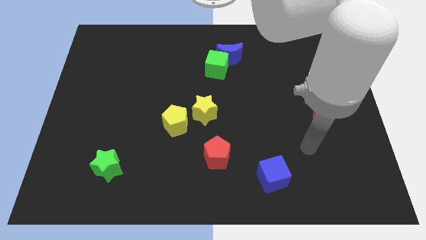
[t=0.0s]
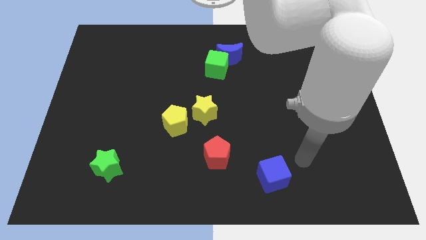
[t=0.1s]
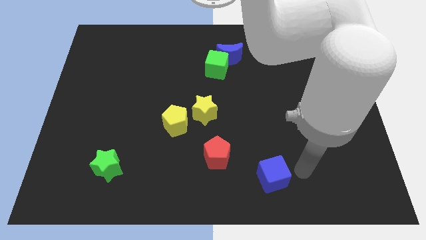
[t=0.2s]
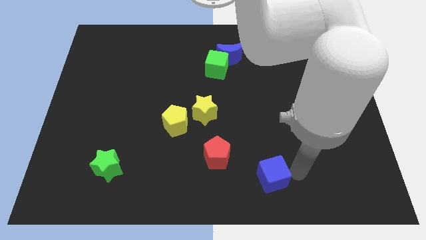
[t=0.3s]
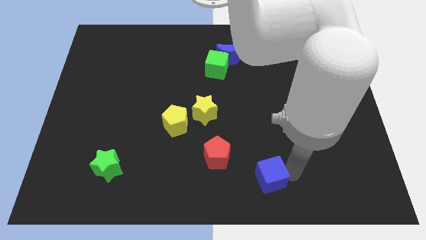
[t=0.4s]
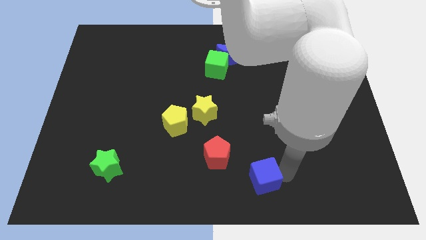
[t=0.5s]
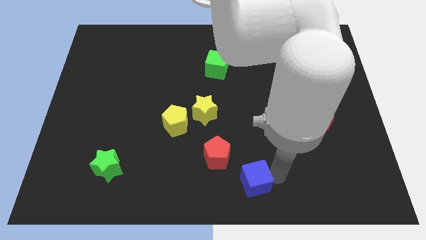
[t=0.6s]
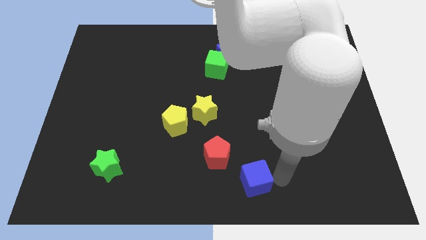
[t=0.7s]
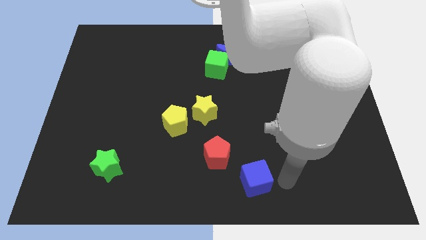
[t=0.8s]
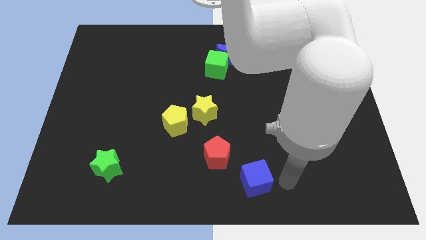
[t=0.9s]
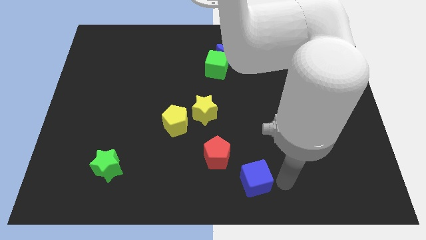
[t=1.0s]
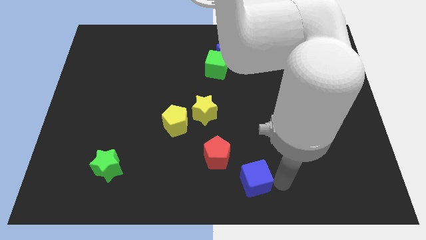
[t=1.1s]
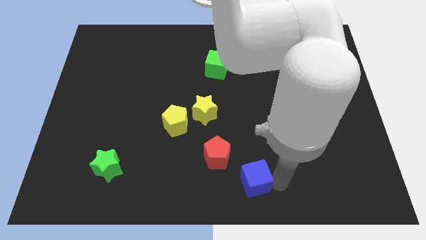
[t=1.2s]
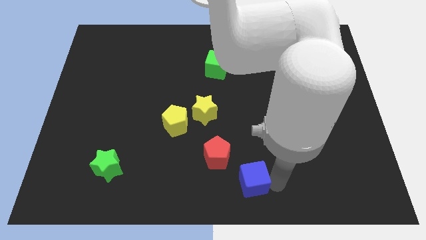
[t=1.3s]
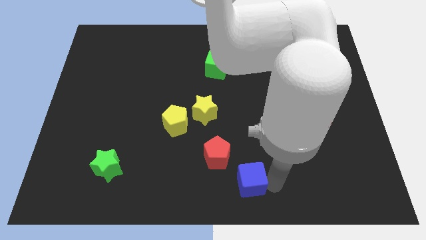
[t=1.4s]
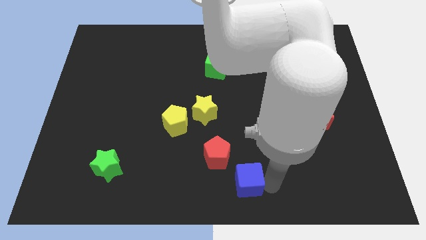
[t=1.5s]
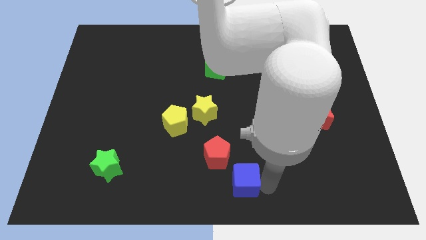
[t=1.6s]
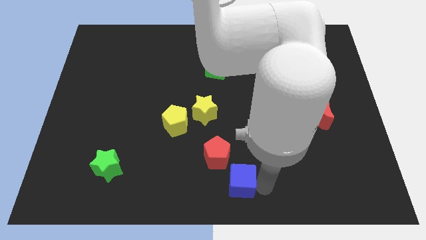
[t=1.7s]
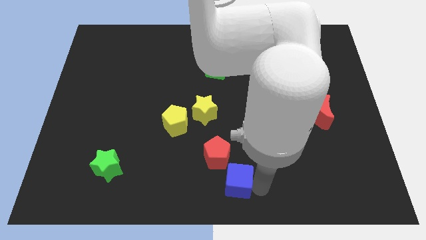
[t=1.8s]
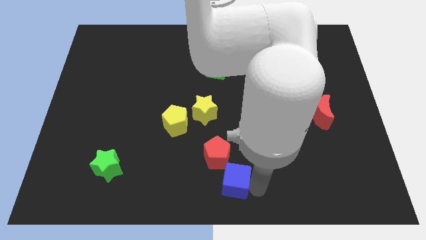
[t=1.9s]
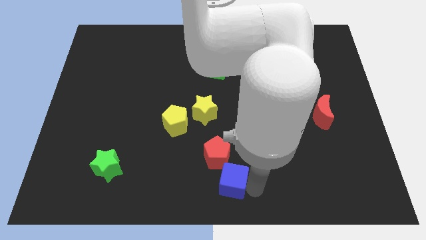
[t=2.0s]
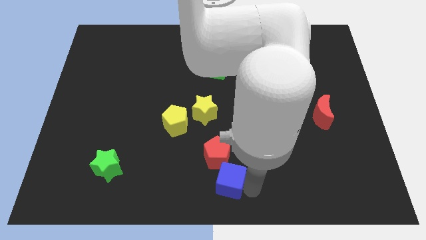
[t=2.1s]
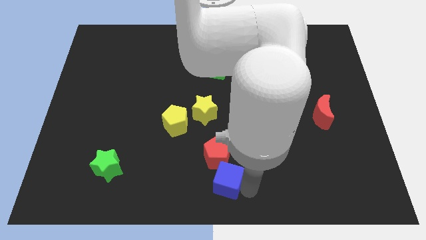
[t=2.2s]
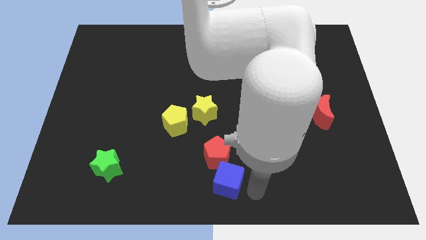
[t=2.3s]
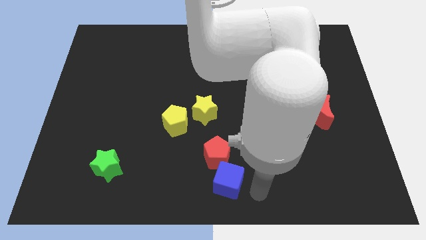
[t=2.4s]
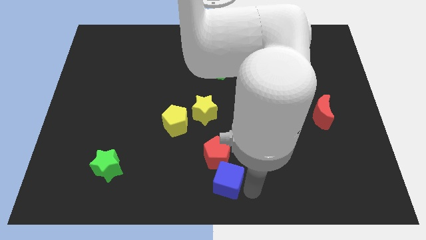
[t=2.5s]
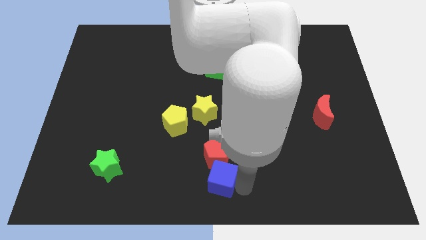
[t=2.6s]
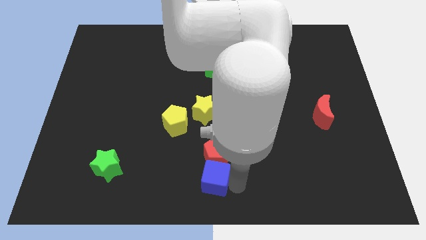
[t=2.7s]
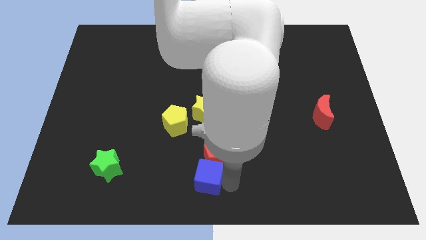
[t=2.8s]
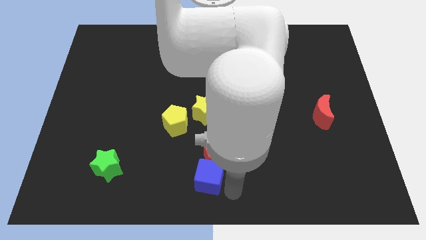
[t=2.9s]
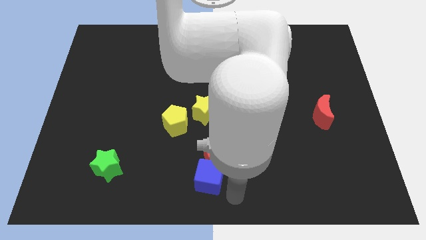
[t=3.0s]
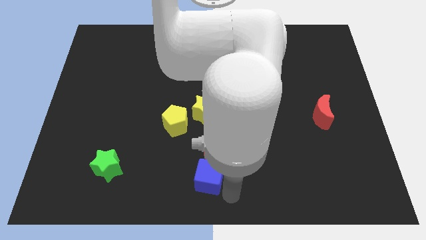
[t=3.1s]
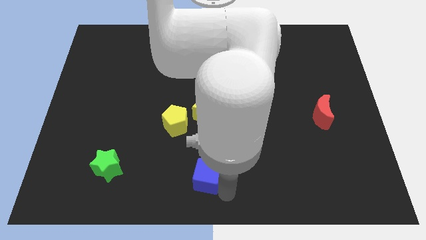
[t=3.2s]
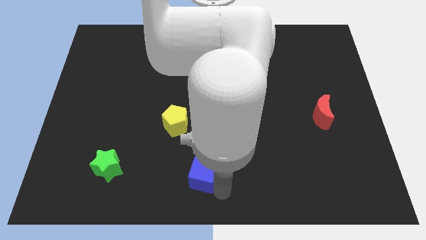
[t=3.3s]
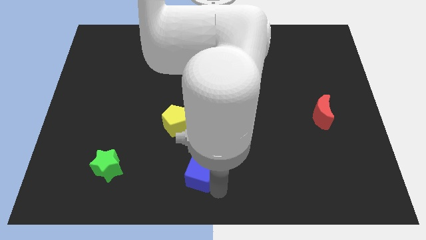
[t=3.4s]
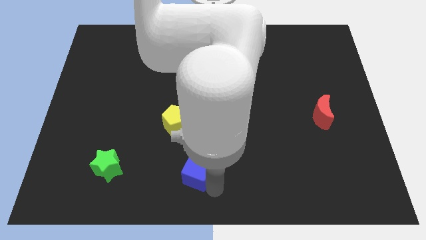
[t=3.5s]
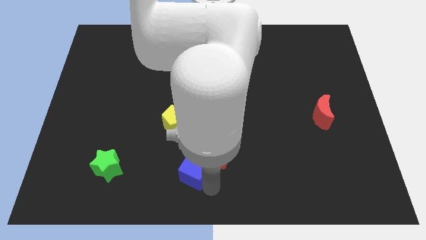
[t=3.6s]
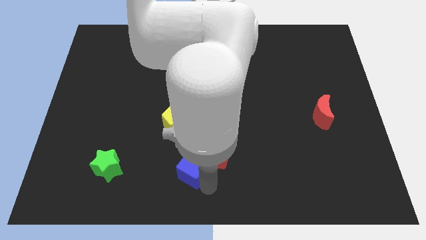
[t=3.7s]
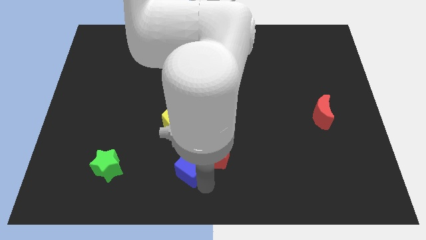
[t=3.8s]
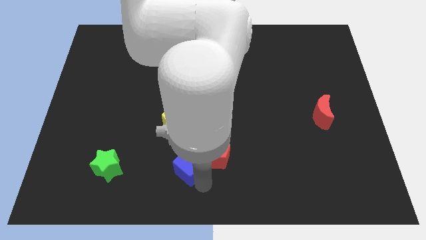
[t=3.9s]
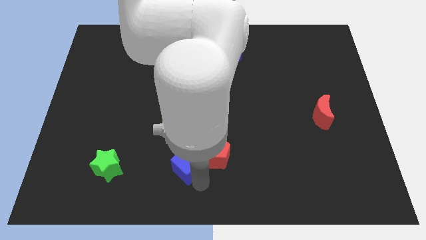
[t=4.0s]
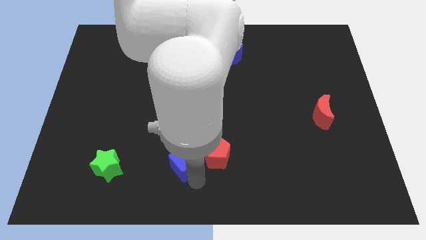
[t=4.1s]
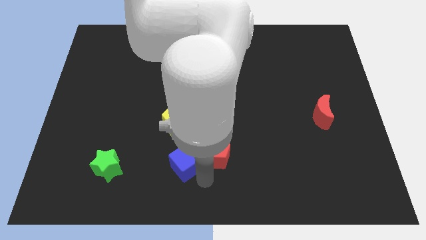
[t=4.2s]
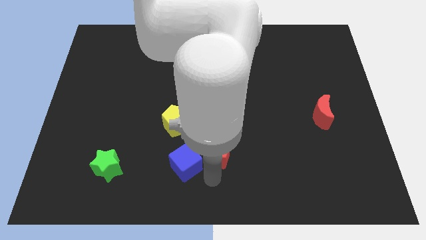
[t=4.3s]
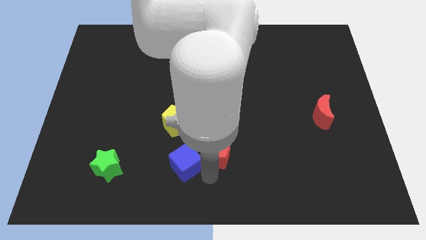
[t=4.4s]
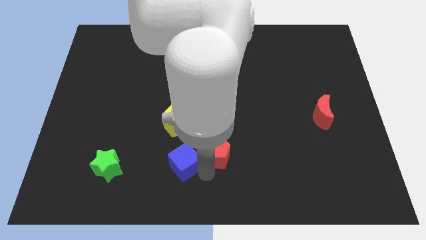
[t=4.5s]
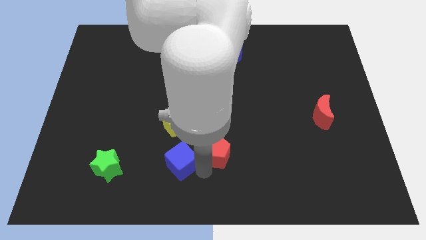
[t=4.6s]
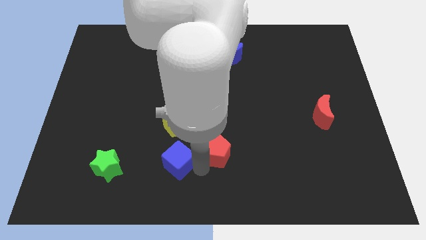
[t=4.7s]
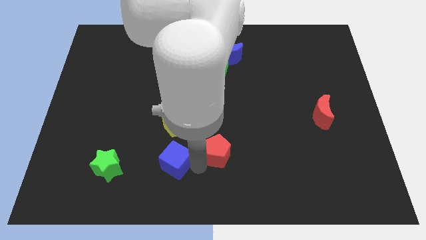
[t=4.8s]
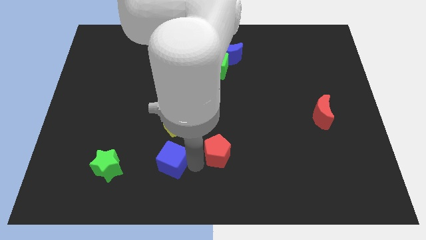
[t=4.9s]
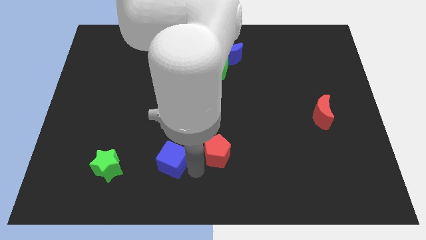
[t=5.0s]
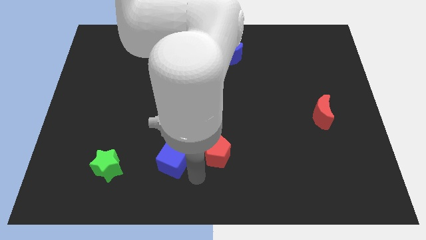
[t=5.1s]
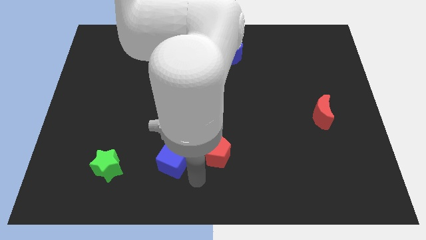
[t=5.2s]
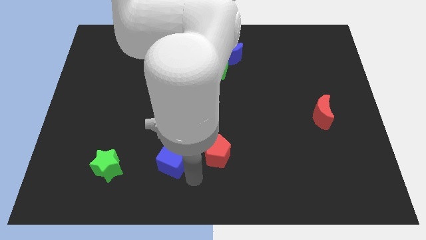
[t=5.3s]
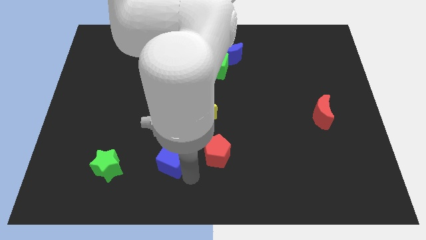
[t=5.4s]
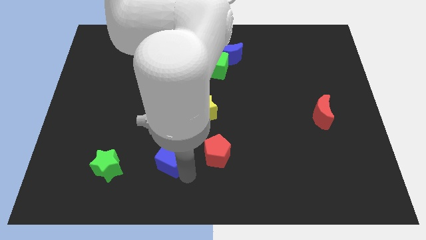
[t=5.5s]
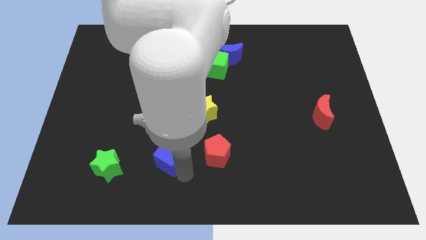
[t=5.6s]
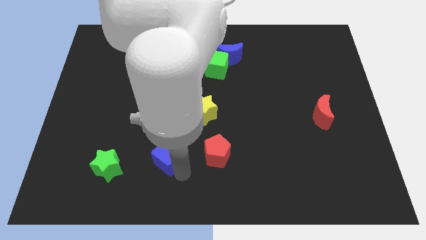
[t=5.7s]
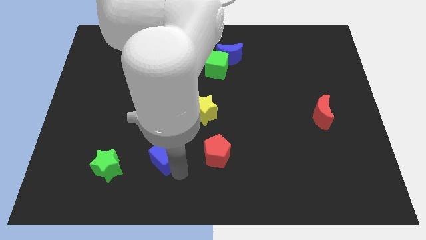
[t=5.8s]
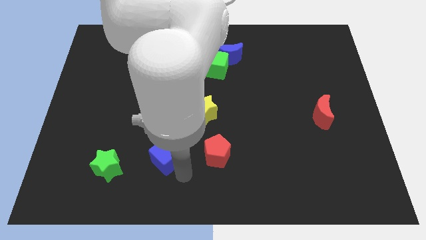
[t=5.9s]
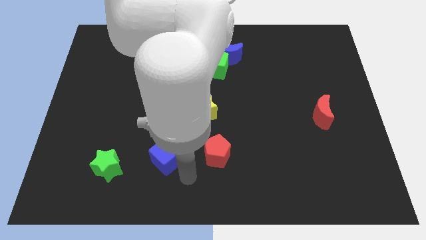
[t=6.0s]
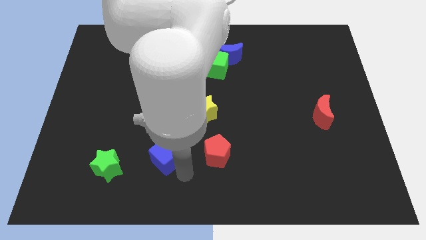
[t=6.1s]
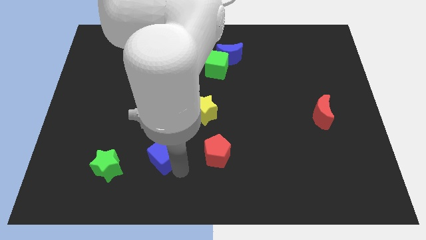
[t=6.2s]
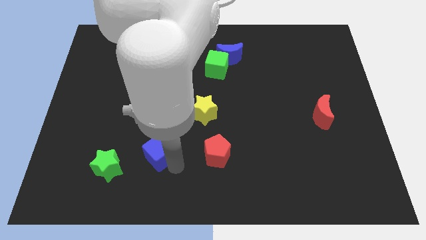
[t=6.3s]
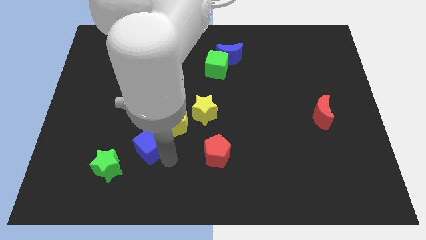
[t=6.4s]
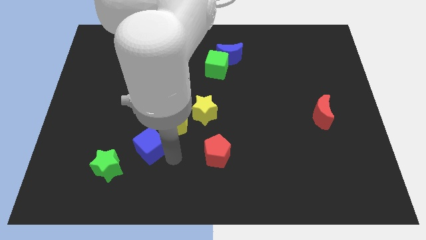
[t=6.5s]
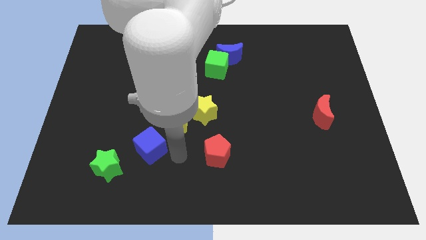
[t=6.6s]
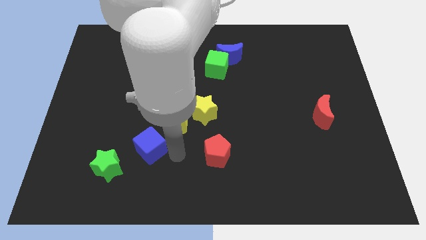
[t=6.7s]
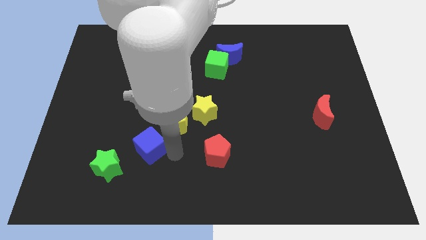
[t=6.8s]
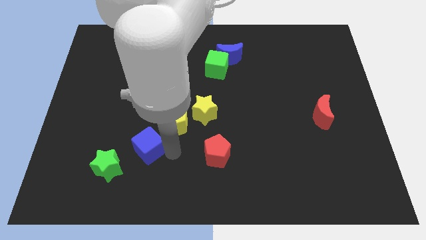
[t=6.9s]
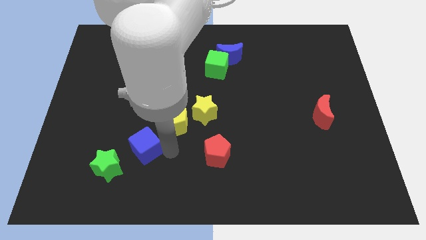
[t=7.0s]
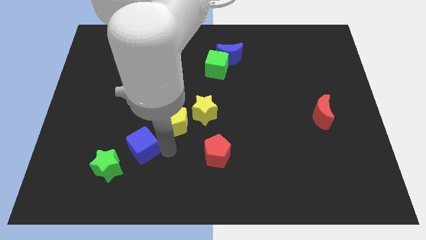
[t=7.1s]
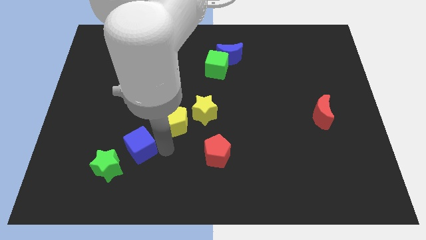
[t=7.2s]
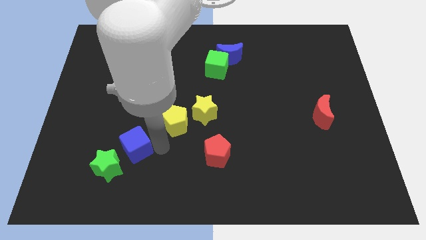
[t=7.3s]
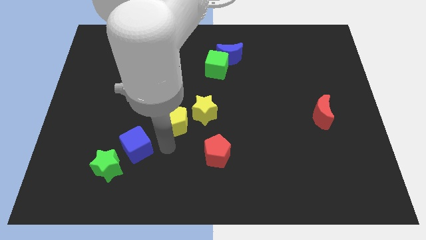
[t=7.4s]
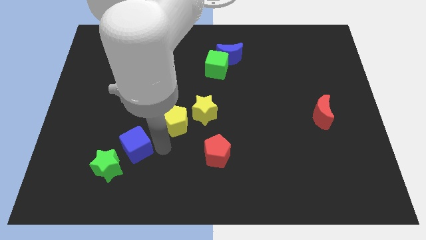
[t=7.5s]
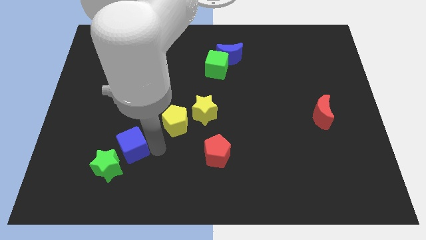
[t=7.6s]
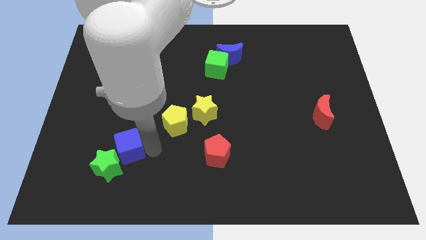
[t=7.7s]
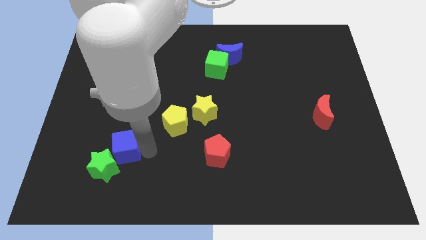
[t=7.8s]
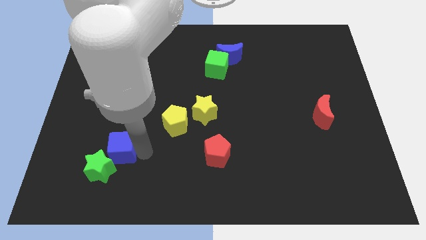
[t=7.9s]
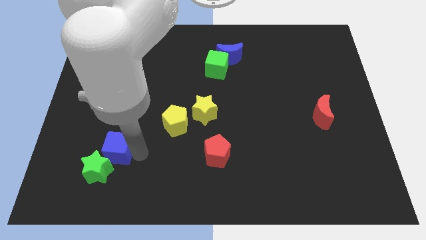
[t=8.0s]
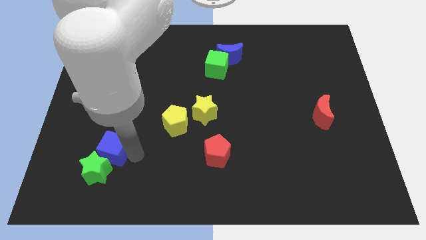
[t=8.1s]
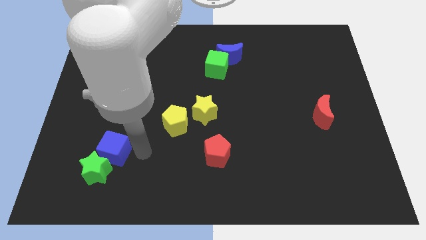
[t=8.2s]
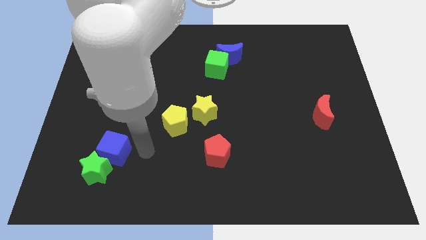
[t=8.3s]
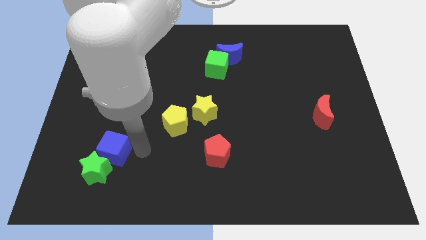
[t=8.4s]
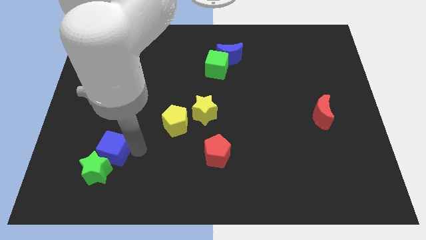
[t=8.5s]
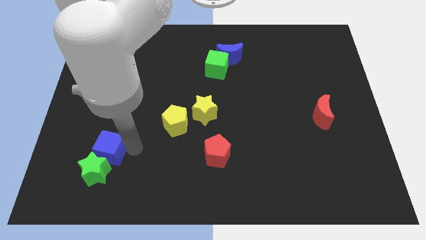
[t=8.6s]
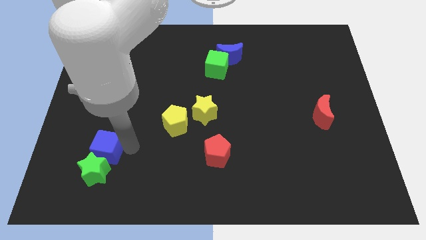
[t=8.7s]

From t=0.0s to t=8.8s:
push the blue cube to the top left of the green star
